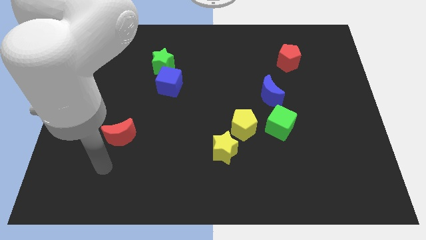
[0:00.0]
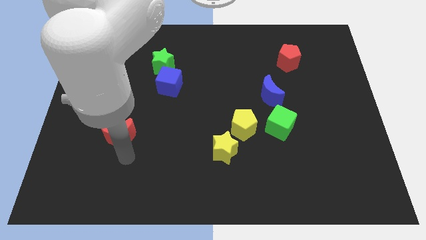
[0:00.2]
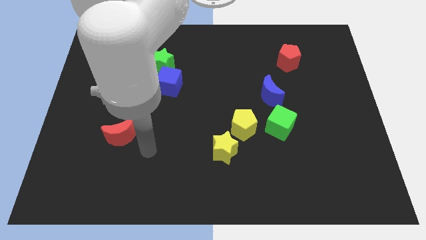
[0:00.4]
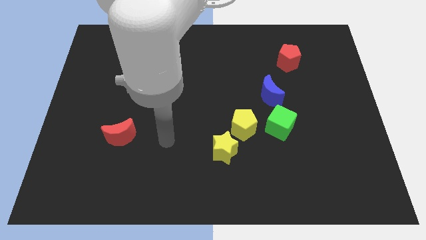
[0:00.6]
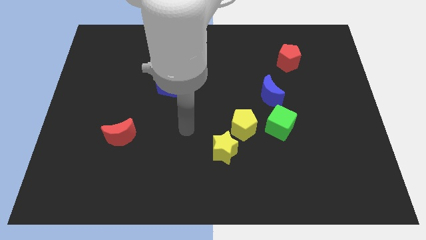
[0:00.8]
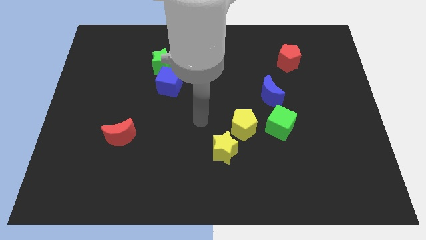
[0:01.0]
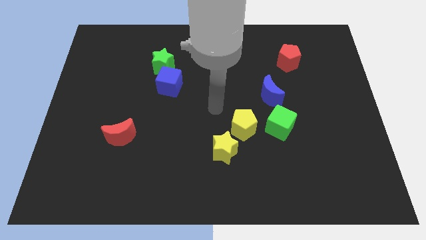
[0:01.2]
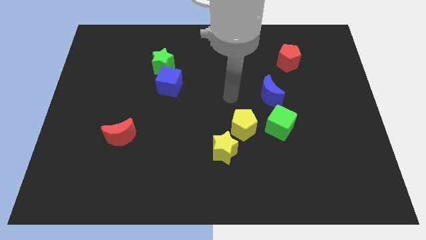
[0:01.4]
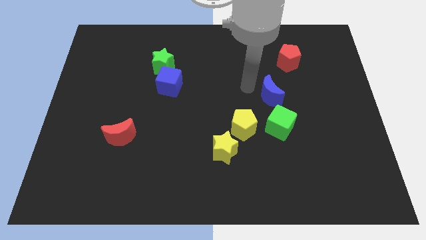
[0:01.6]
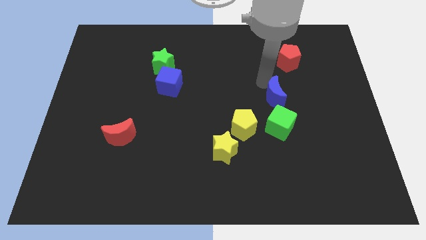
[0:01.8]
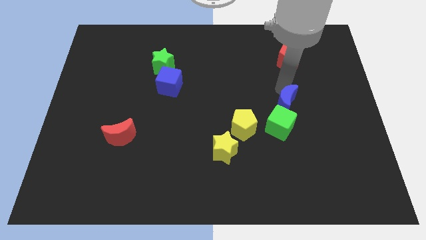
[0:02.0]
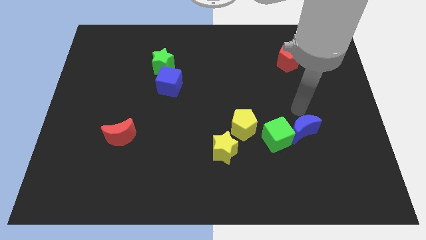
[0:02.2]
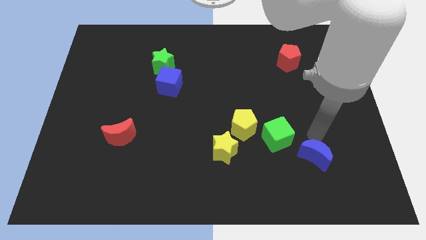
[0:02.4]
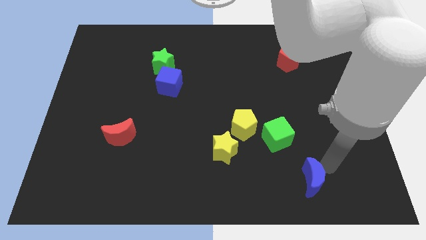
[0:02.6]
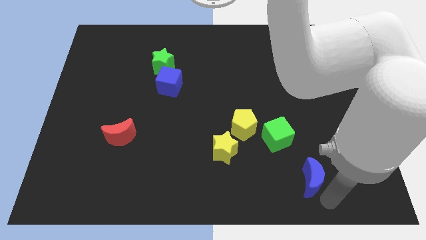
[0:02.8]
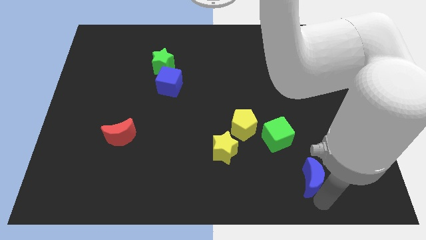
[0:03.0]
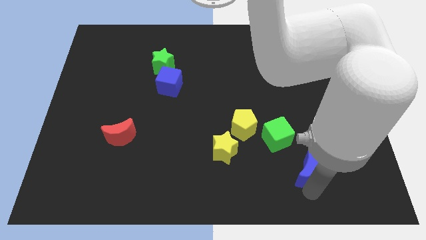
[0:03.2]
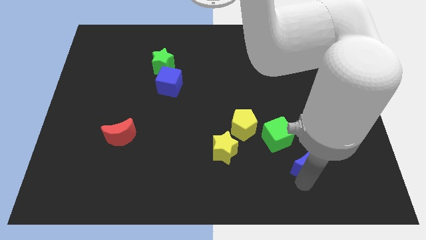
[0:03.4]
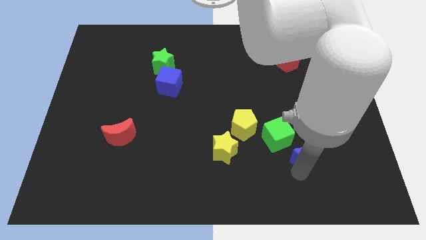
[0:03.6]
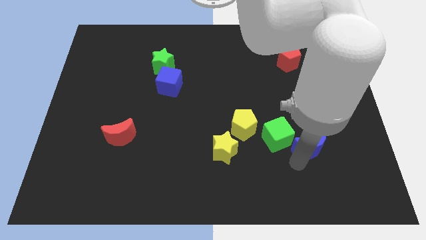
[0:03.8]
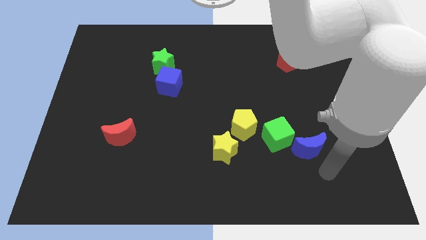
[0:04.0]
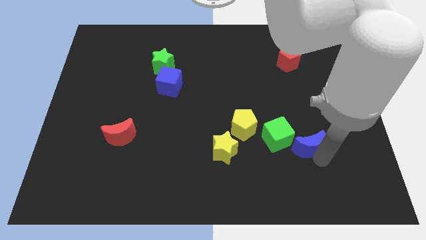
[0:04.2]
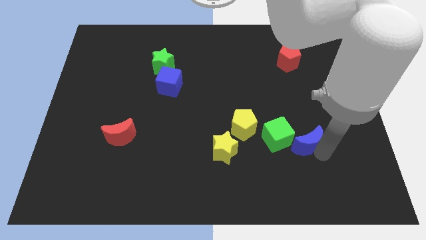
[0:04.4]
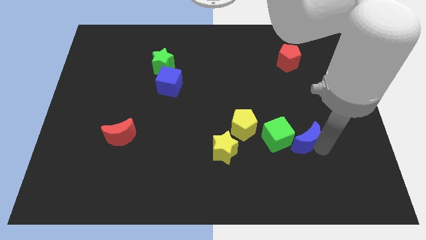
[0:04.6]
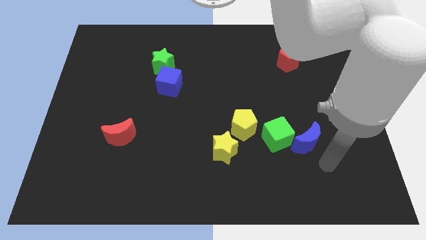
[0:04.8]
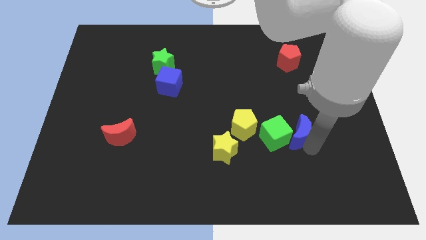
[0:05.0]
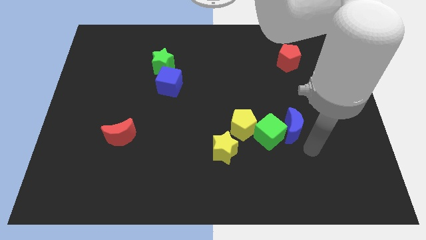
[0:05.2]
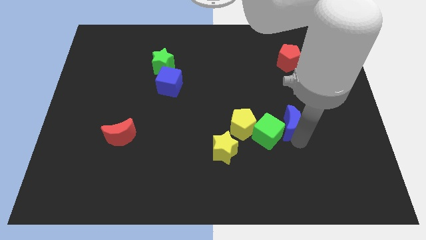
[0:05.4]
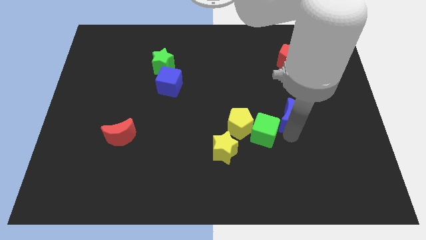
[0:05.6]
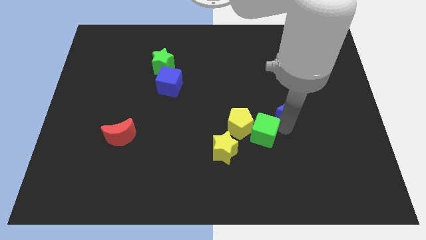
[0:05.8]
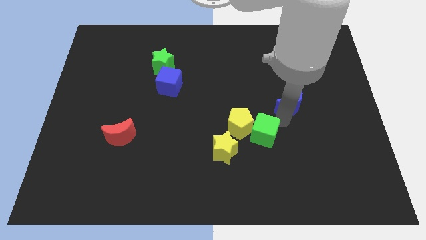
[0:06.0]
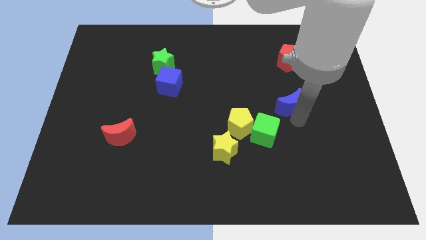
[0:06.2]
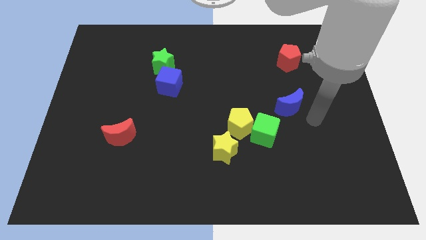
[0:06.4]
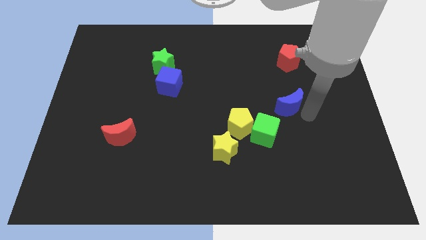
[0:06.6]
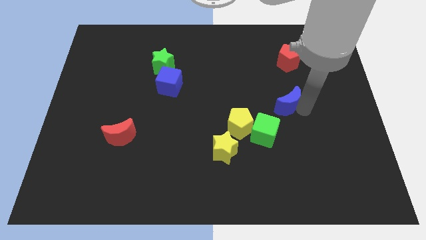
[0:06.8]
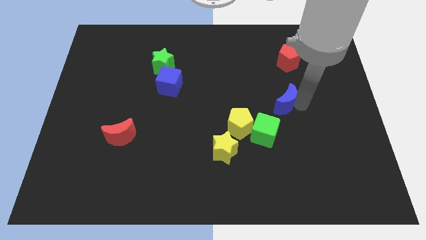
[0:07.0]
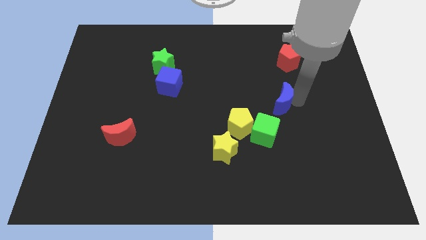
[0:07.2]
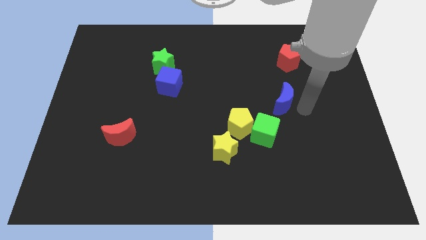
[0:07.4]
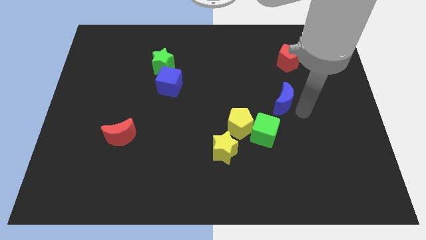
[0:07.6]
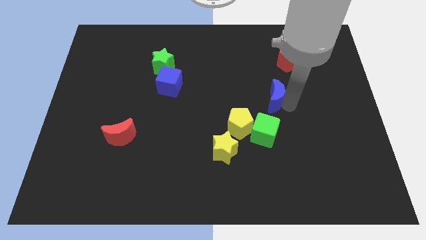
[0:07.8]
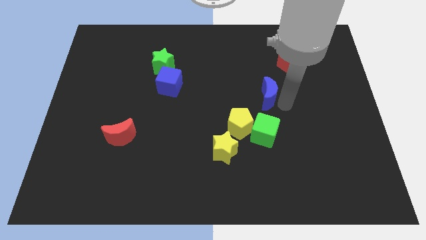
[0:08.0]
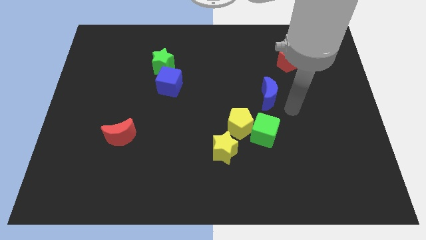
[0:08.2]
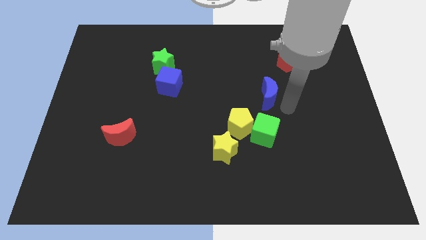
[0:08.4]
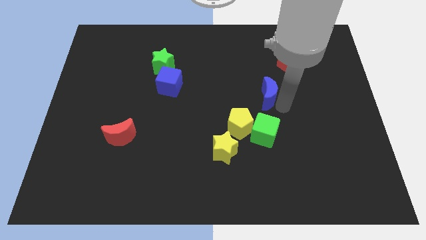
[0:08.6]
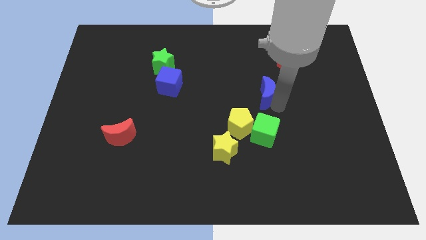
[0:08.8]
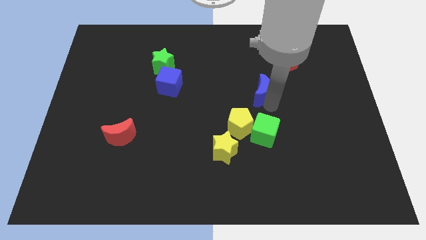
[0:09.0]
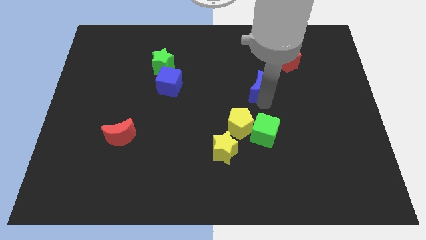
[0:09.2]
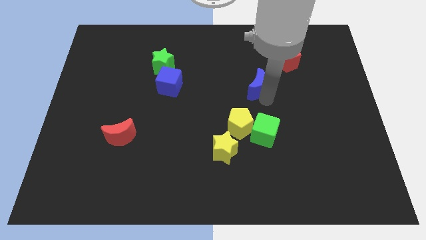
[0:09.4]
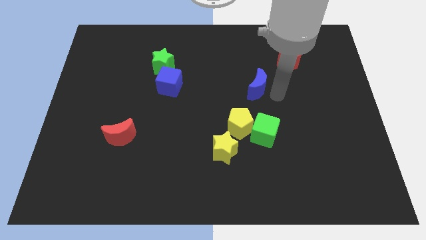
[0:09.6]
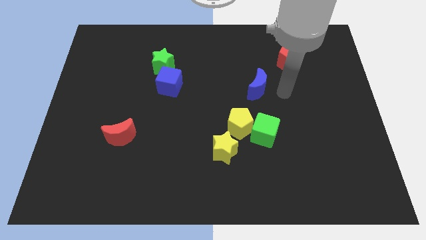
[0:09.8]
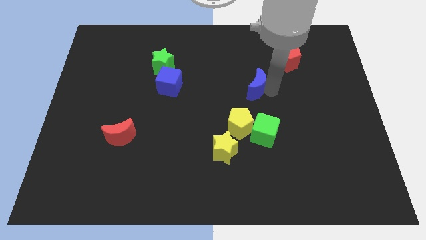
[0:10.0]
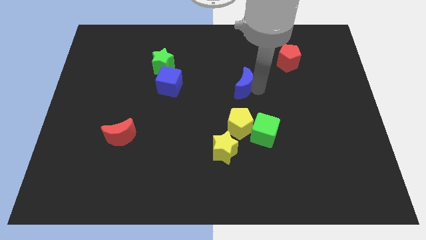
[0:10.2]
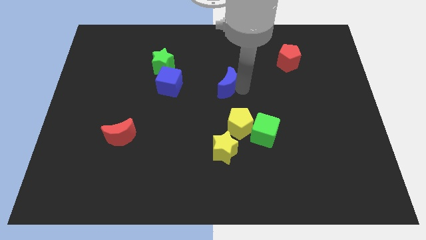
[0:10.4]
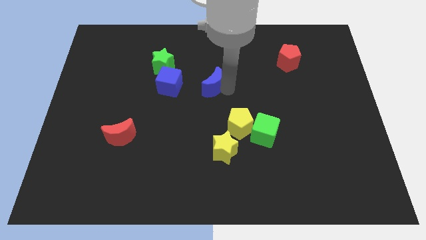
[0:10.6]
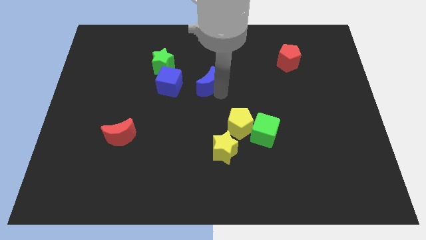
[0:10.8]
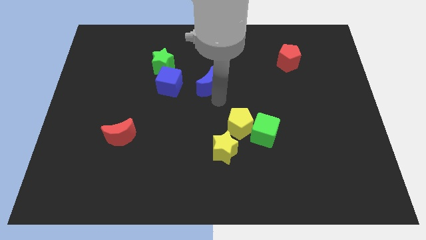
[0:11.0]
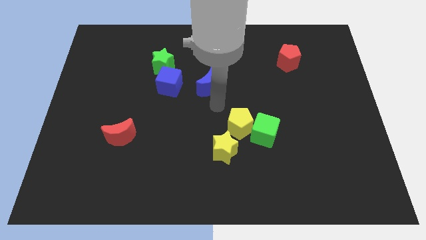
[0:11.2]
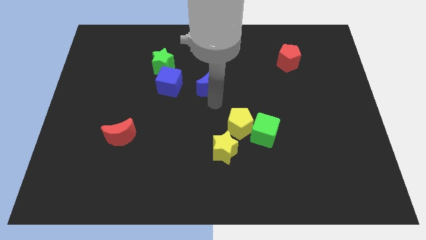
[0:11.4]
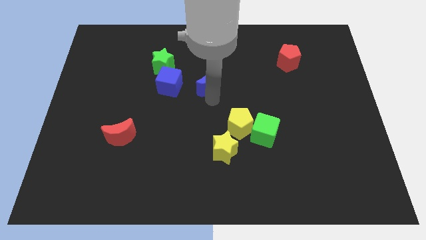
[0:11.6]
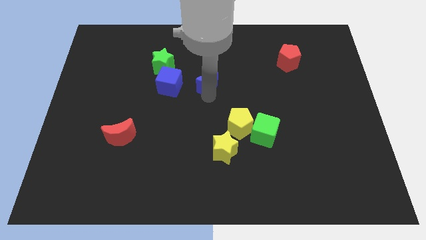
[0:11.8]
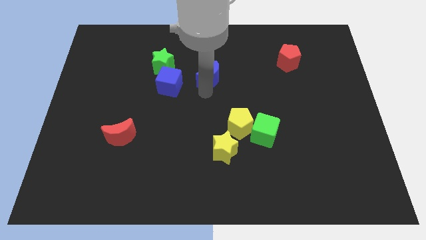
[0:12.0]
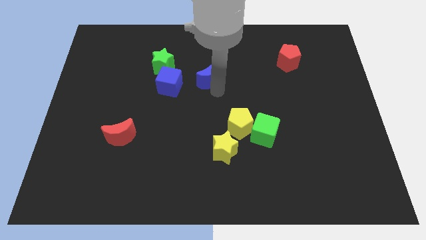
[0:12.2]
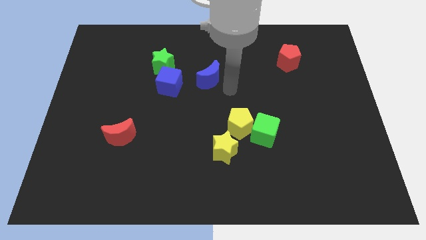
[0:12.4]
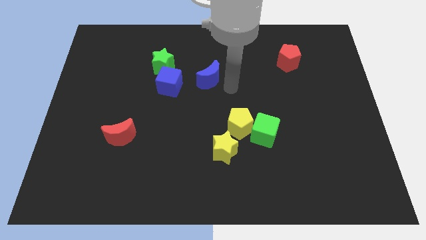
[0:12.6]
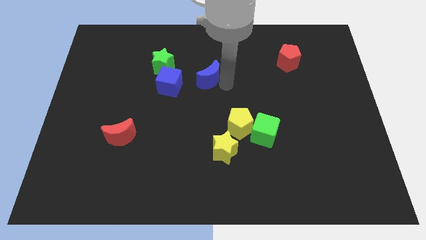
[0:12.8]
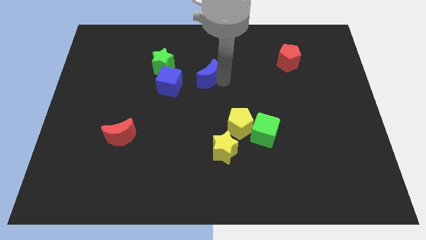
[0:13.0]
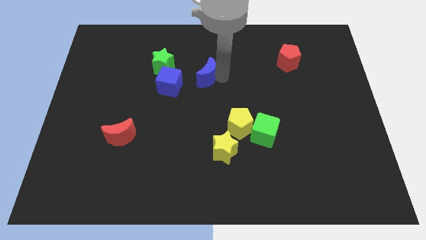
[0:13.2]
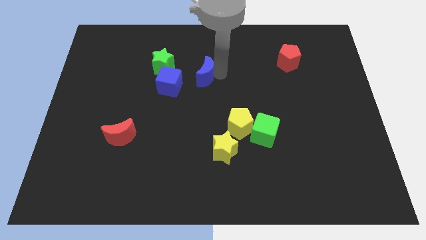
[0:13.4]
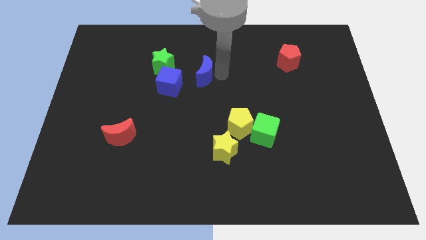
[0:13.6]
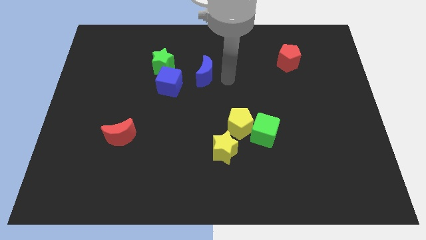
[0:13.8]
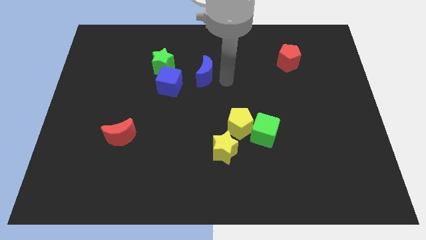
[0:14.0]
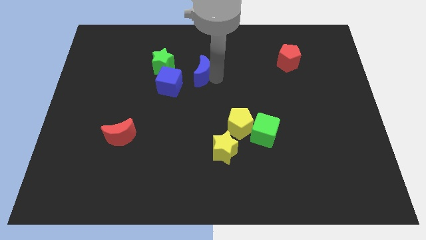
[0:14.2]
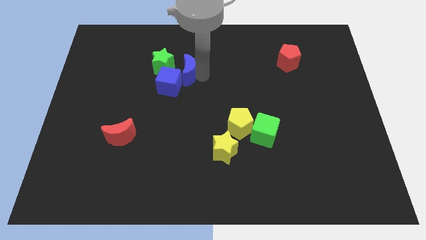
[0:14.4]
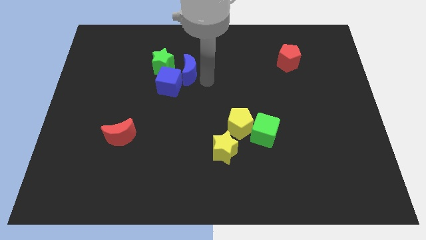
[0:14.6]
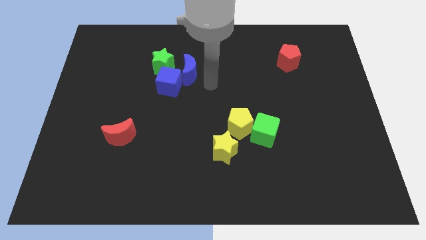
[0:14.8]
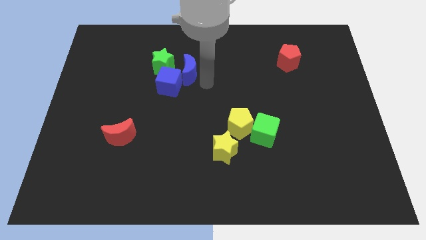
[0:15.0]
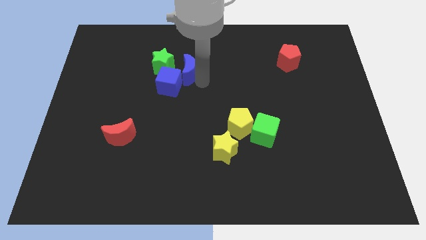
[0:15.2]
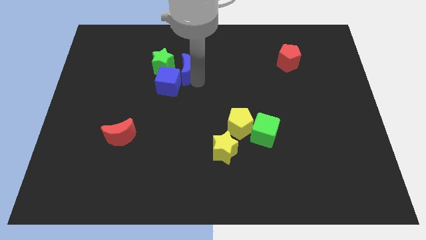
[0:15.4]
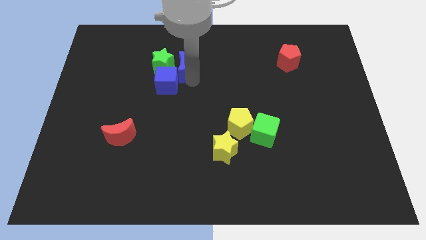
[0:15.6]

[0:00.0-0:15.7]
move the blue moon close to the green star
